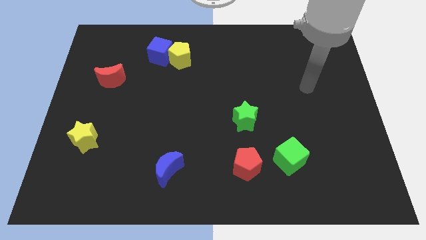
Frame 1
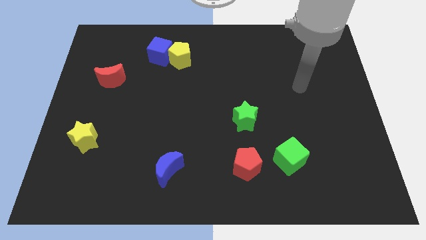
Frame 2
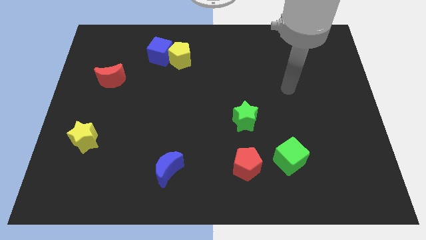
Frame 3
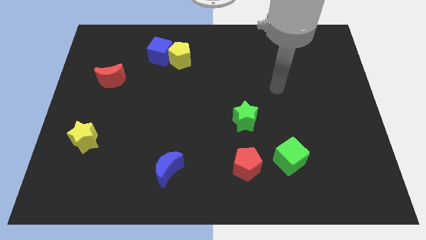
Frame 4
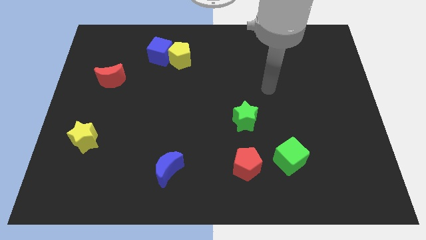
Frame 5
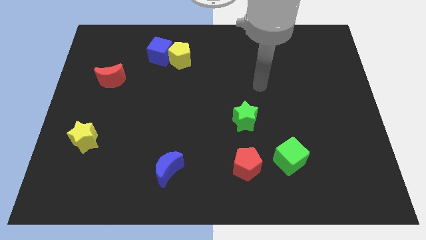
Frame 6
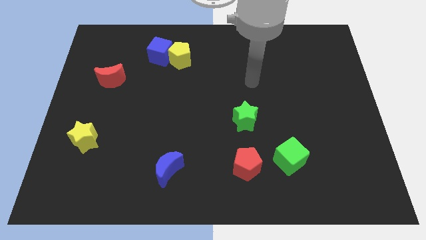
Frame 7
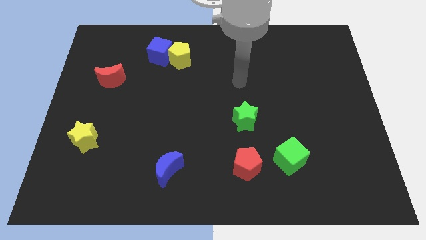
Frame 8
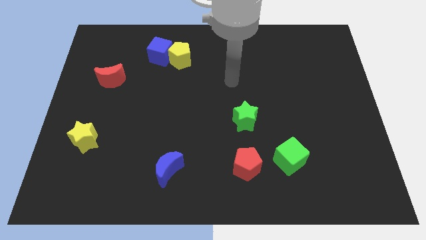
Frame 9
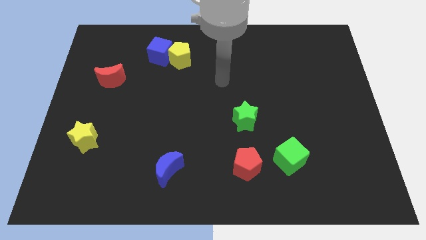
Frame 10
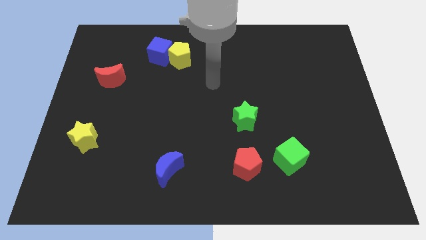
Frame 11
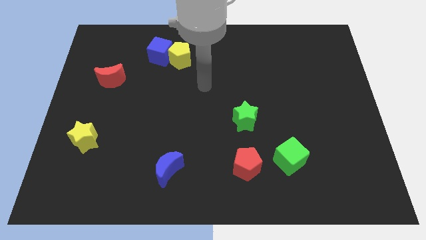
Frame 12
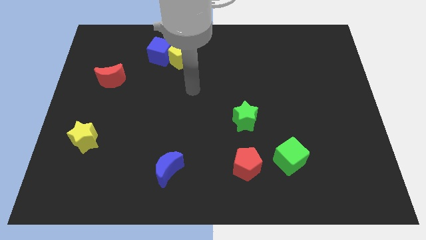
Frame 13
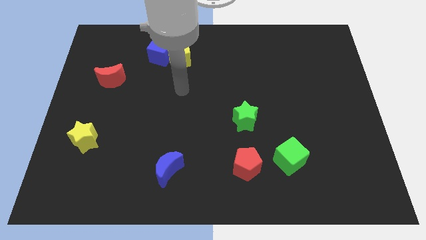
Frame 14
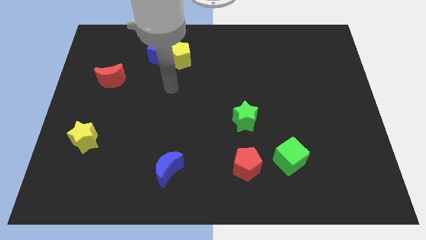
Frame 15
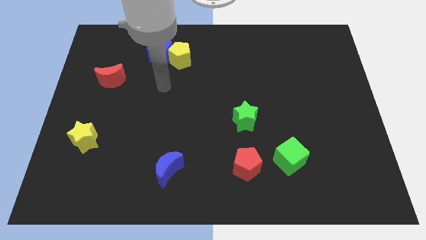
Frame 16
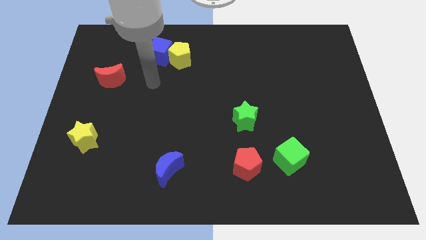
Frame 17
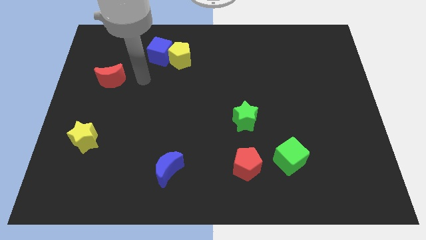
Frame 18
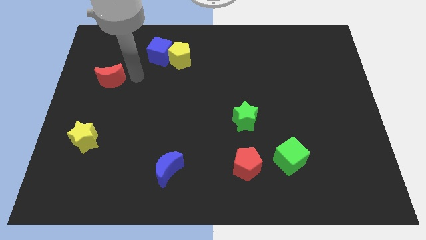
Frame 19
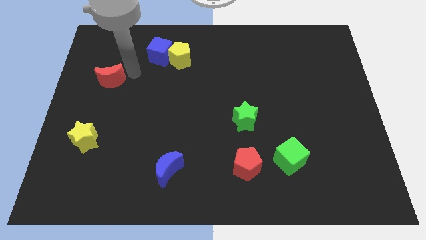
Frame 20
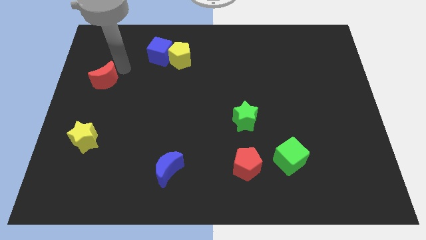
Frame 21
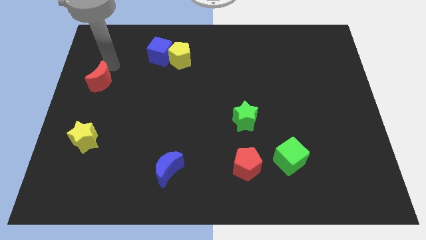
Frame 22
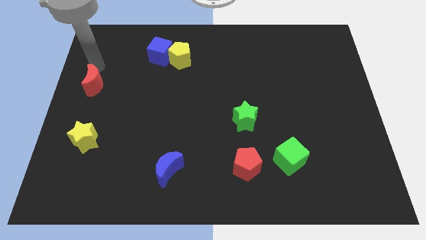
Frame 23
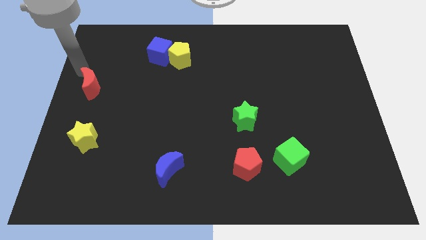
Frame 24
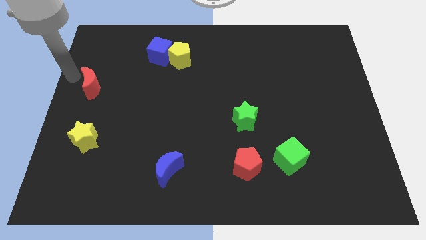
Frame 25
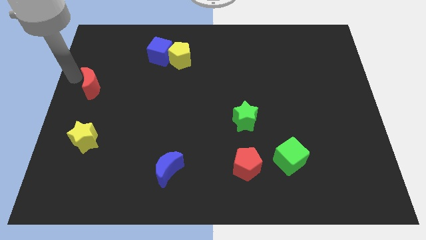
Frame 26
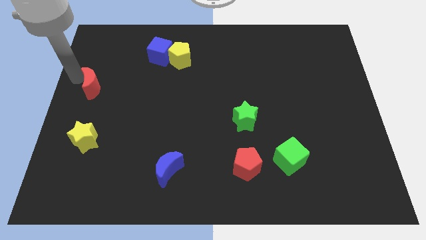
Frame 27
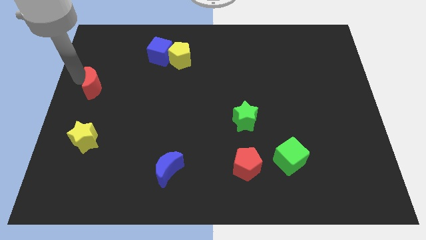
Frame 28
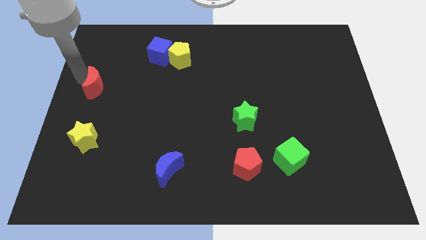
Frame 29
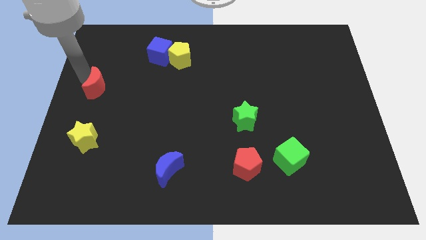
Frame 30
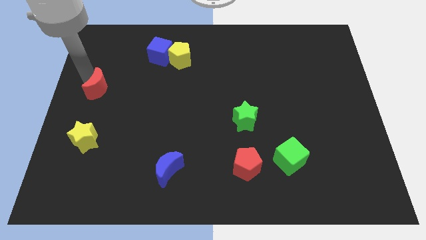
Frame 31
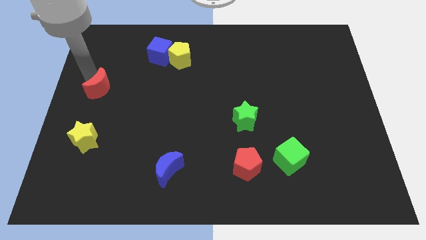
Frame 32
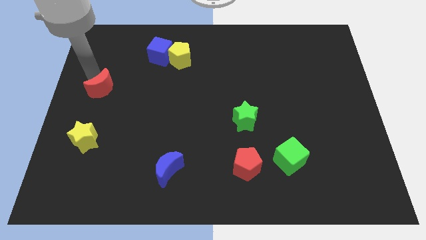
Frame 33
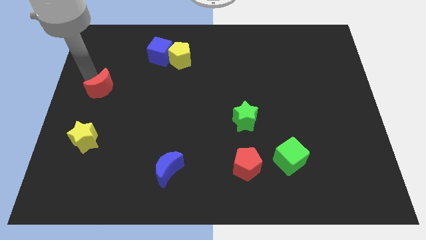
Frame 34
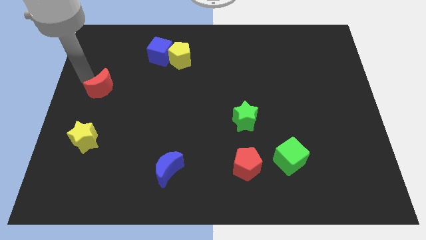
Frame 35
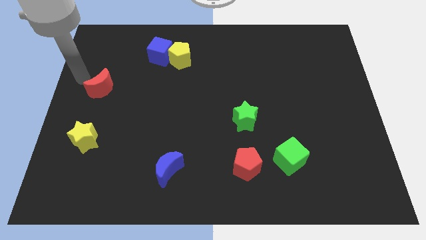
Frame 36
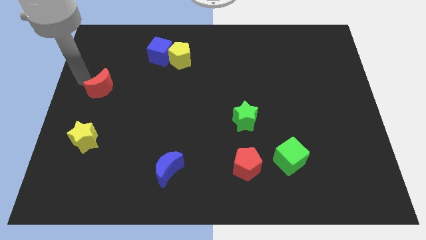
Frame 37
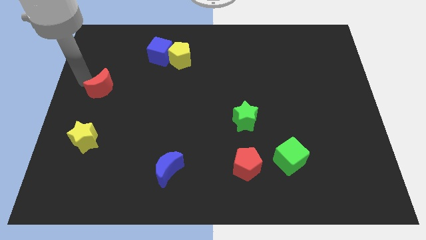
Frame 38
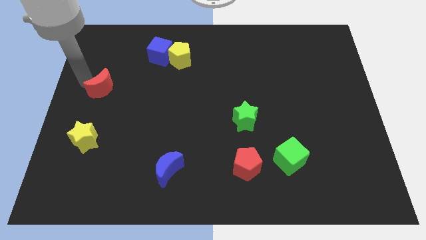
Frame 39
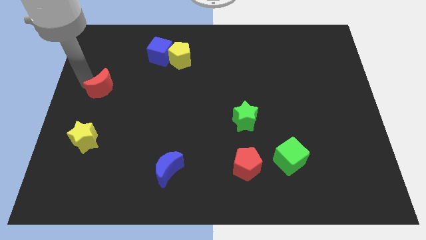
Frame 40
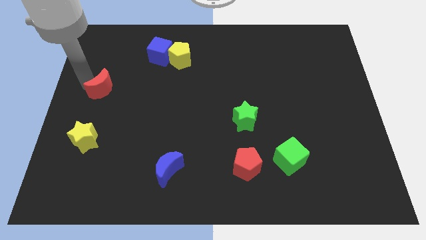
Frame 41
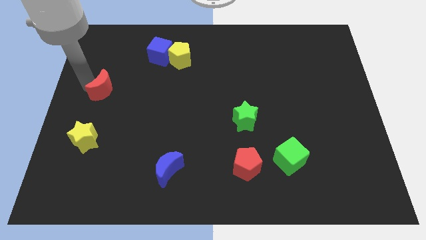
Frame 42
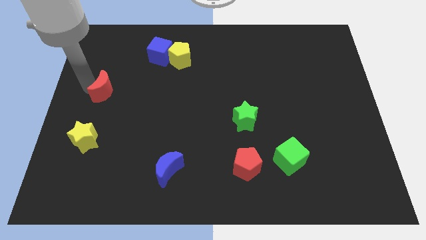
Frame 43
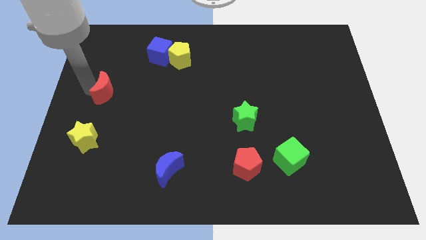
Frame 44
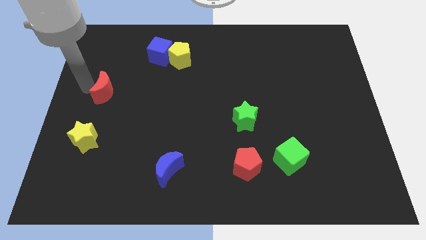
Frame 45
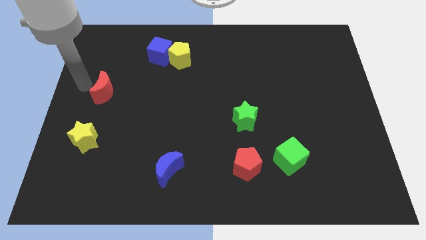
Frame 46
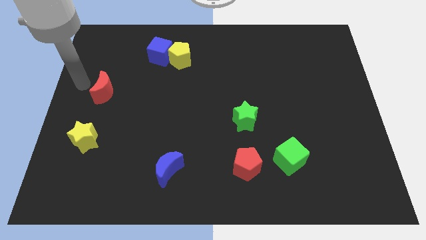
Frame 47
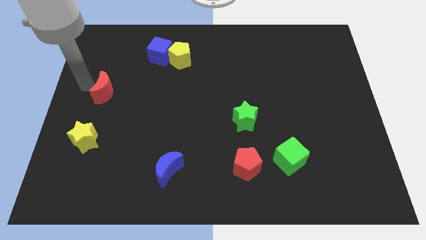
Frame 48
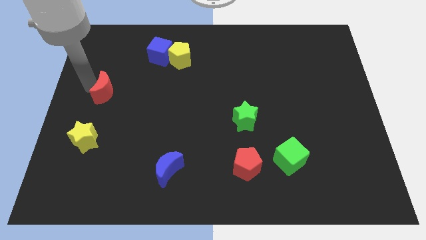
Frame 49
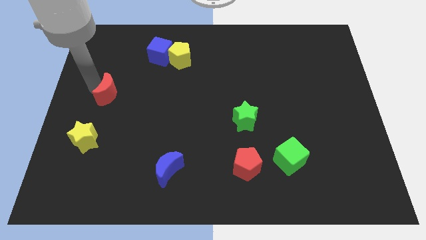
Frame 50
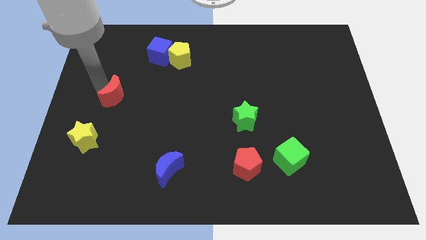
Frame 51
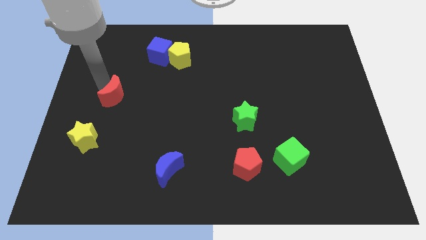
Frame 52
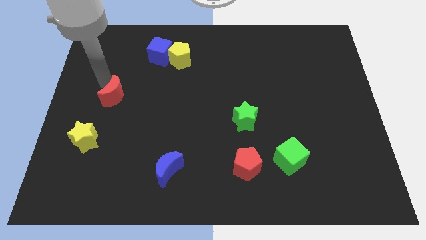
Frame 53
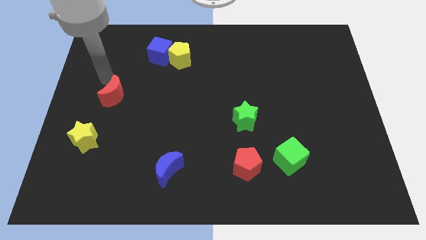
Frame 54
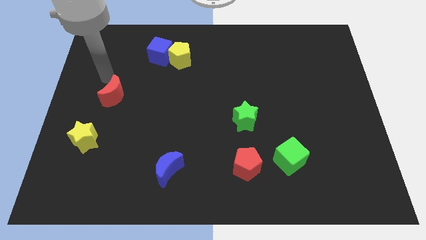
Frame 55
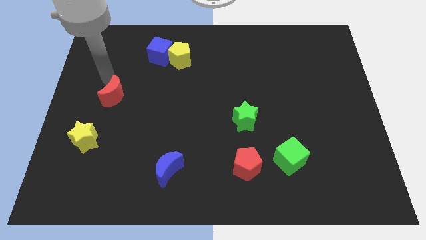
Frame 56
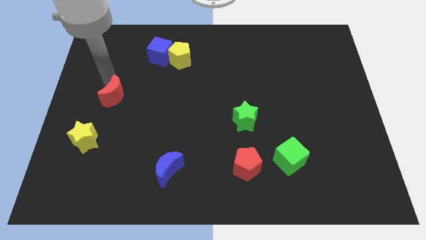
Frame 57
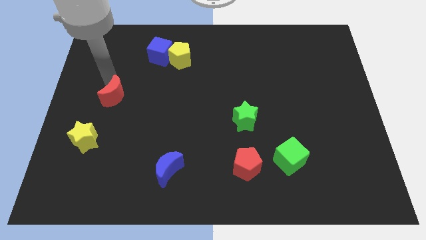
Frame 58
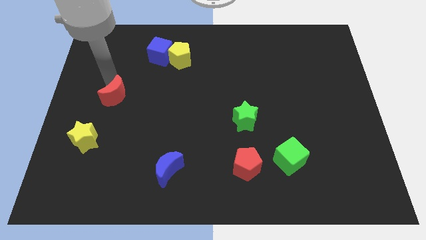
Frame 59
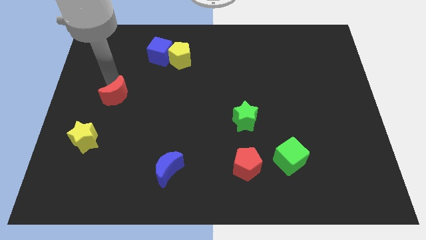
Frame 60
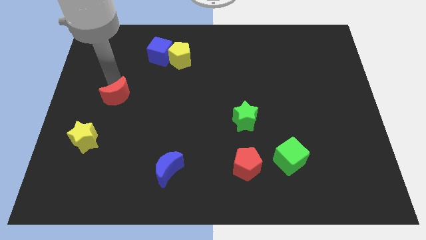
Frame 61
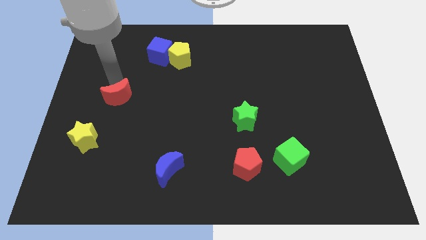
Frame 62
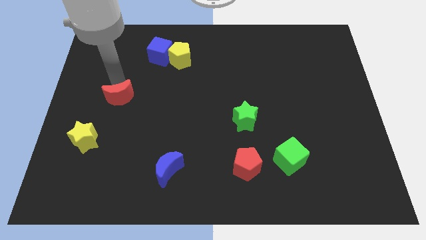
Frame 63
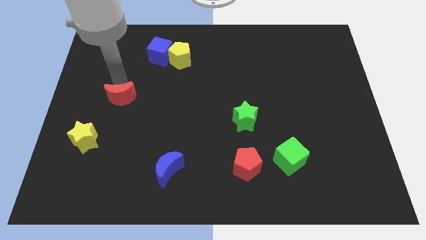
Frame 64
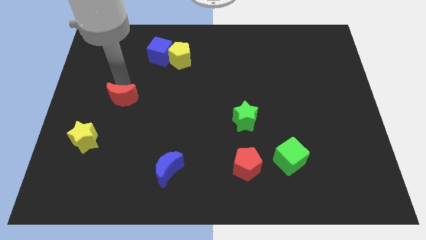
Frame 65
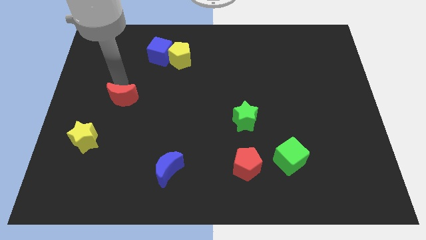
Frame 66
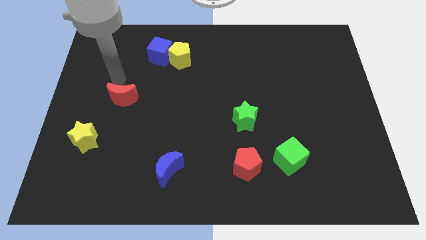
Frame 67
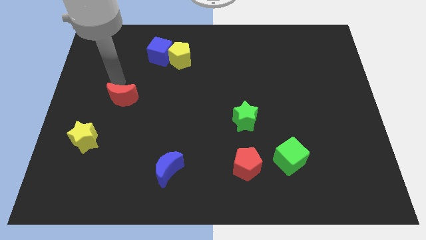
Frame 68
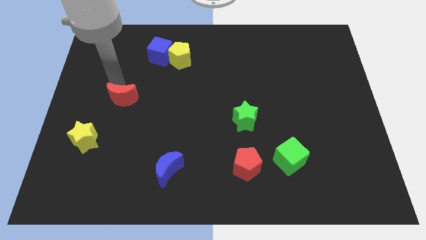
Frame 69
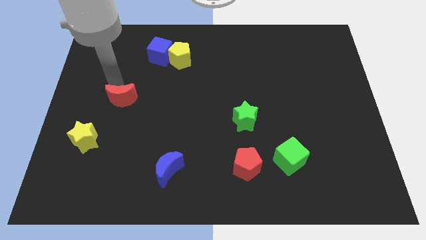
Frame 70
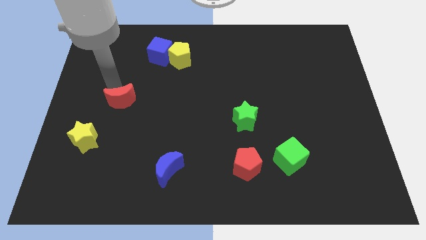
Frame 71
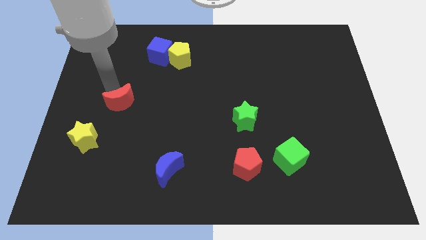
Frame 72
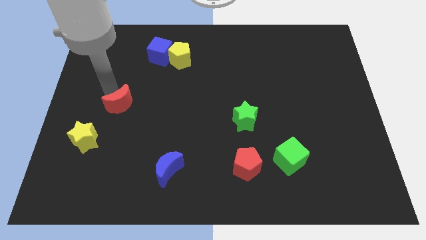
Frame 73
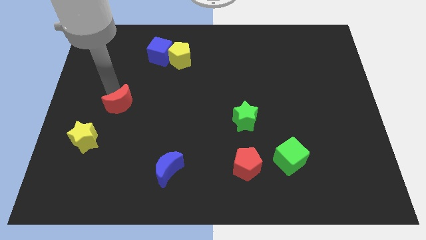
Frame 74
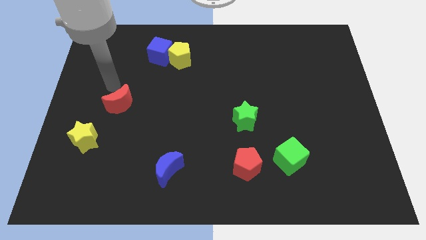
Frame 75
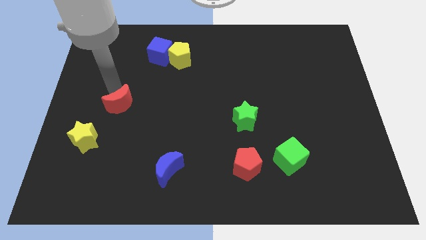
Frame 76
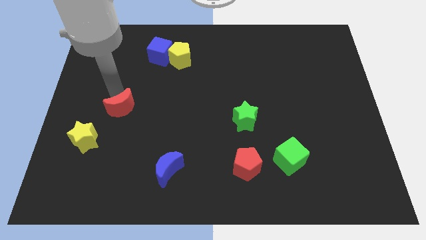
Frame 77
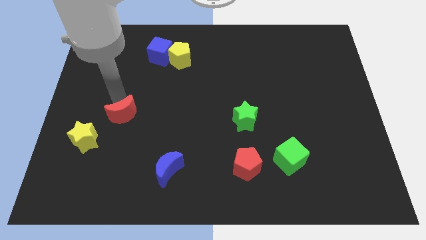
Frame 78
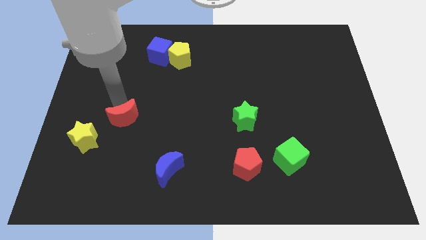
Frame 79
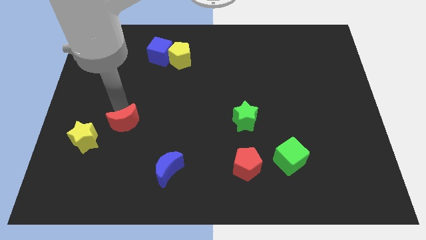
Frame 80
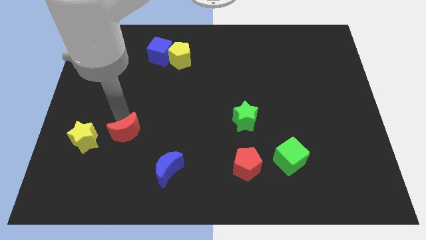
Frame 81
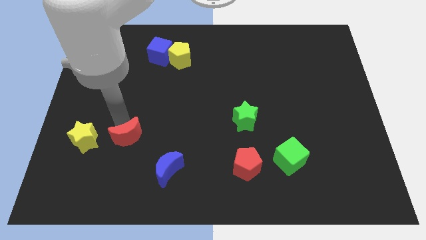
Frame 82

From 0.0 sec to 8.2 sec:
put the red moon to the top left of the blue moon
